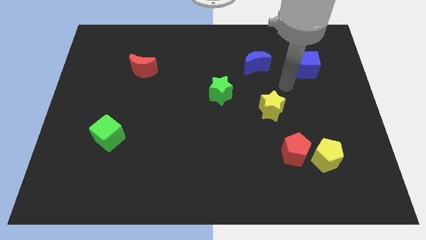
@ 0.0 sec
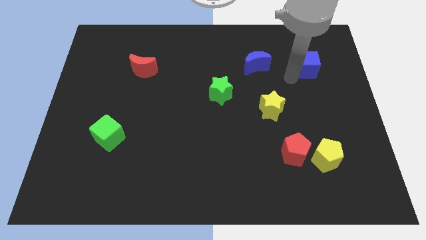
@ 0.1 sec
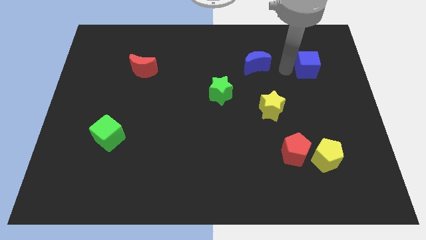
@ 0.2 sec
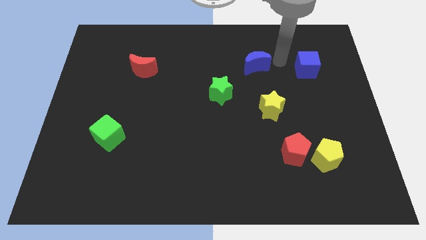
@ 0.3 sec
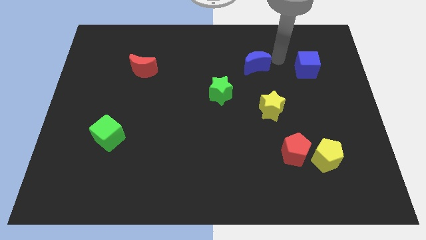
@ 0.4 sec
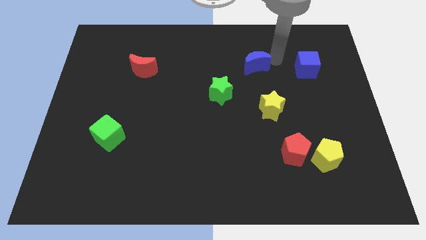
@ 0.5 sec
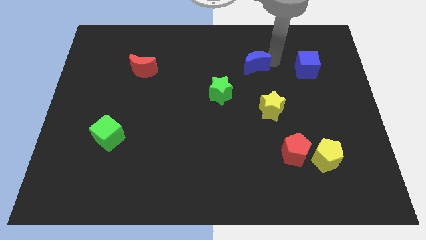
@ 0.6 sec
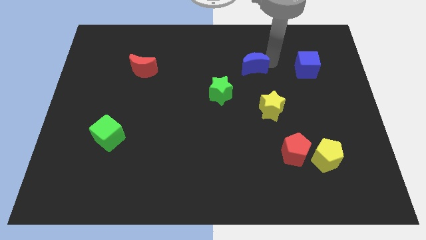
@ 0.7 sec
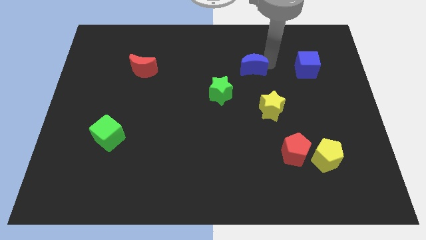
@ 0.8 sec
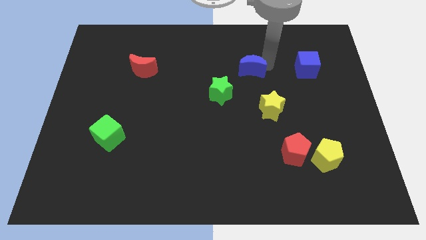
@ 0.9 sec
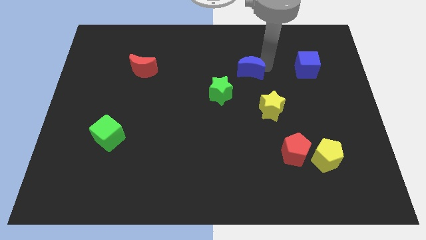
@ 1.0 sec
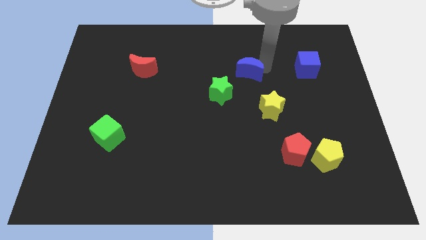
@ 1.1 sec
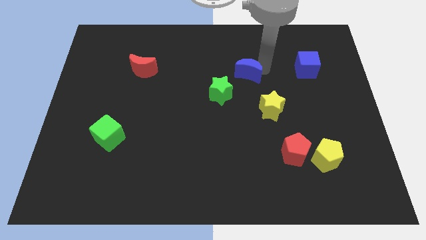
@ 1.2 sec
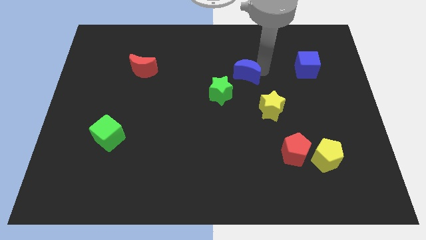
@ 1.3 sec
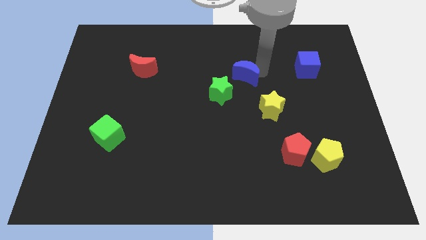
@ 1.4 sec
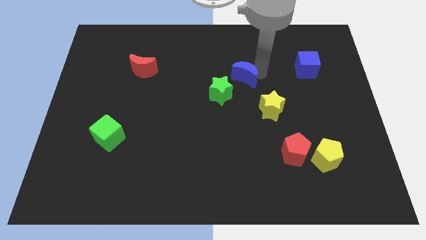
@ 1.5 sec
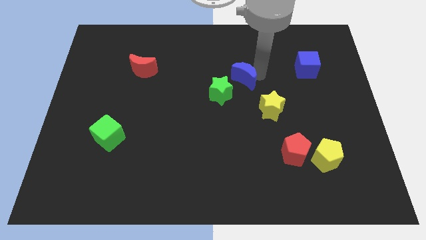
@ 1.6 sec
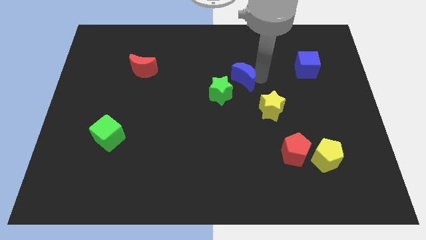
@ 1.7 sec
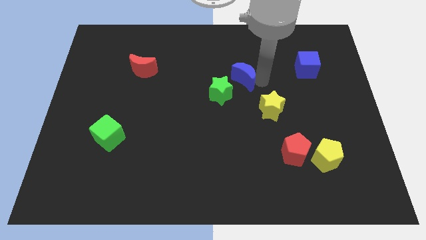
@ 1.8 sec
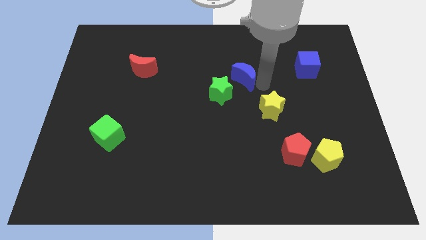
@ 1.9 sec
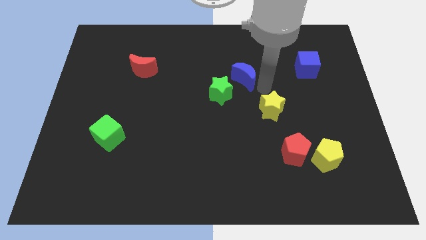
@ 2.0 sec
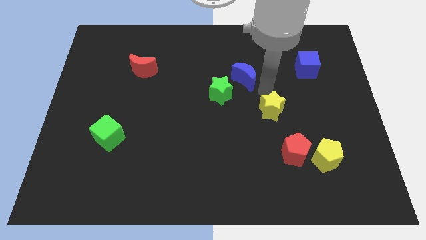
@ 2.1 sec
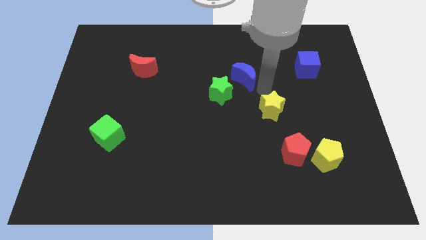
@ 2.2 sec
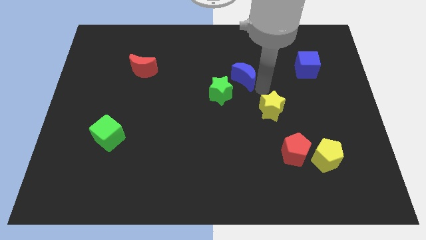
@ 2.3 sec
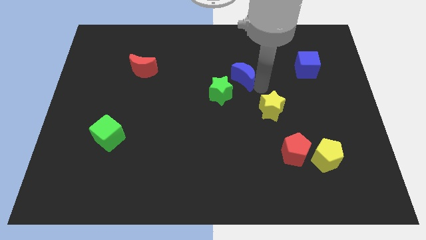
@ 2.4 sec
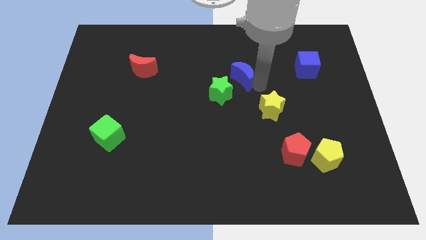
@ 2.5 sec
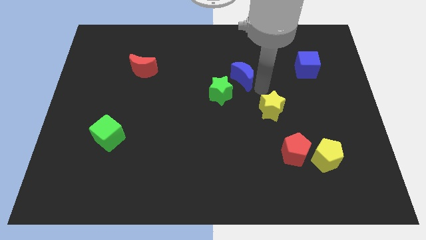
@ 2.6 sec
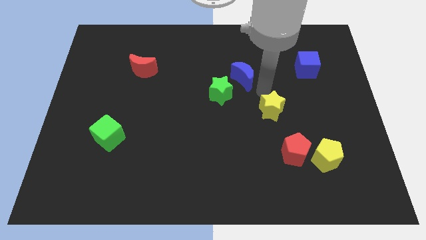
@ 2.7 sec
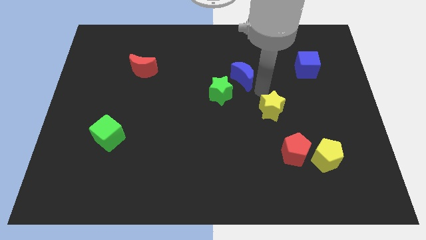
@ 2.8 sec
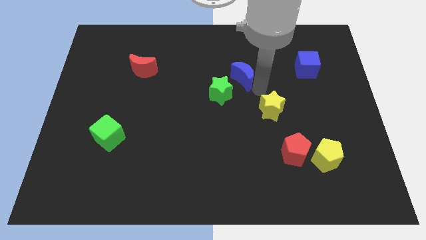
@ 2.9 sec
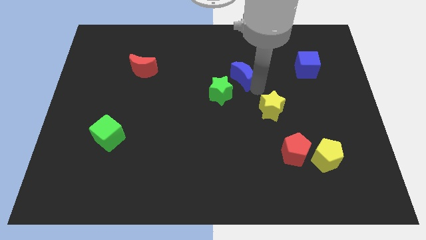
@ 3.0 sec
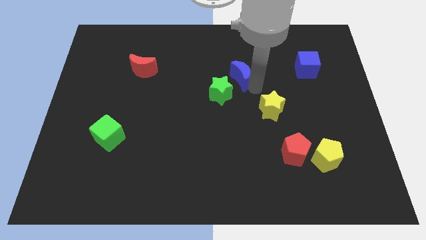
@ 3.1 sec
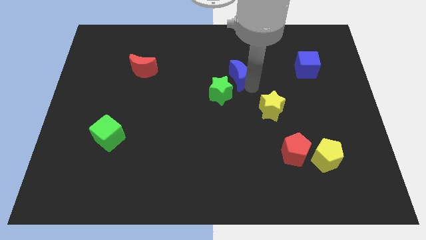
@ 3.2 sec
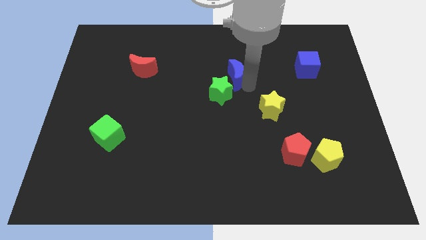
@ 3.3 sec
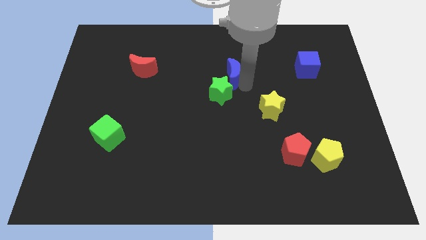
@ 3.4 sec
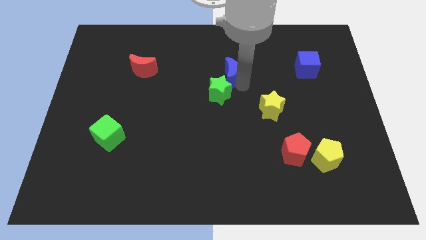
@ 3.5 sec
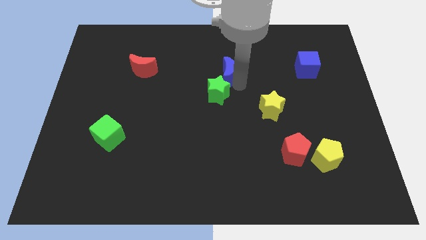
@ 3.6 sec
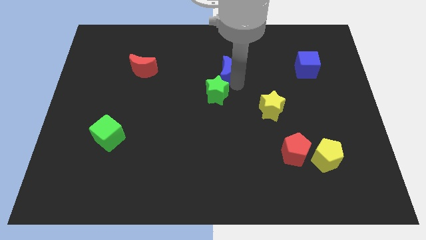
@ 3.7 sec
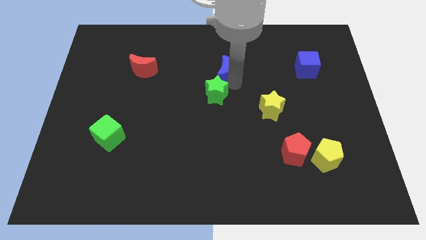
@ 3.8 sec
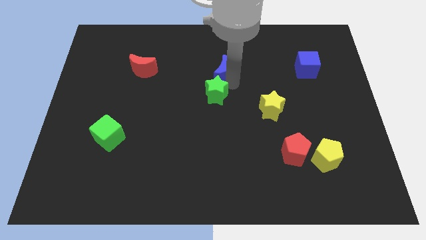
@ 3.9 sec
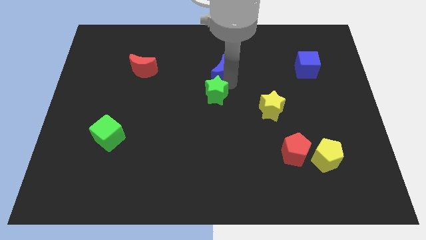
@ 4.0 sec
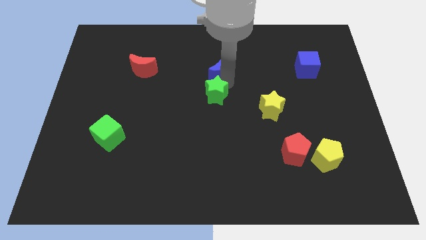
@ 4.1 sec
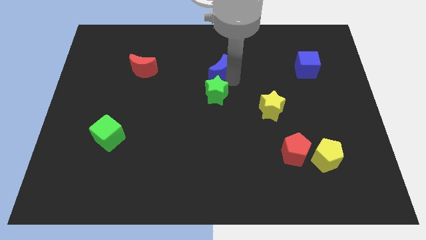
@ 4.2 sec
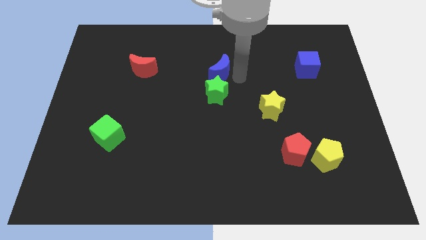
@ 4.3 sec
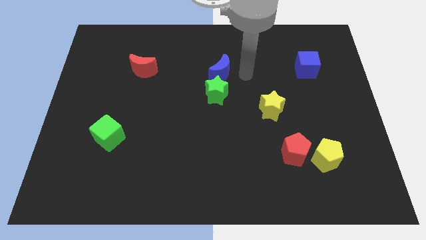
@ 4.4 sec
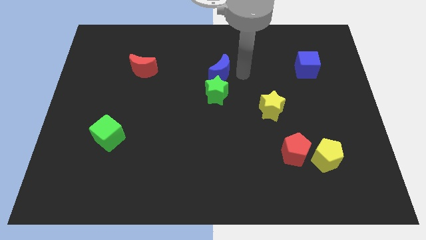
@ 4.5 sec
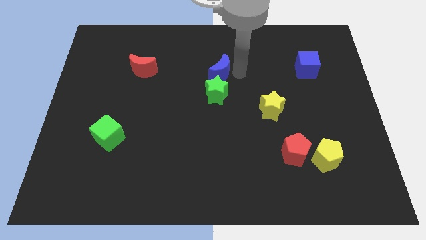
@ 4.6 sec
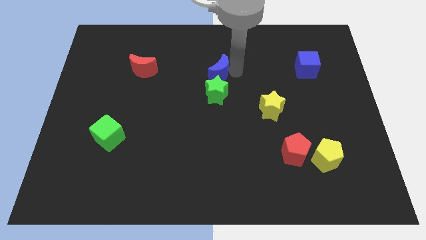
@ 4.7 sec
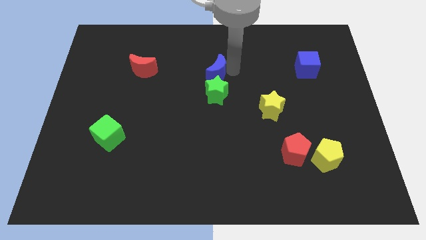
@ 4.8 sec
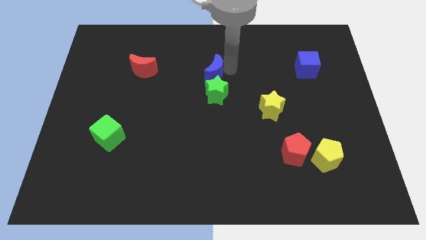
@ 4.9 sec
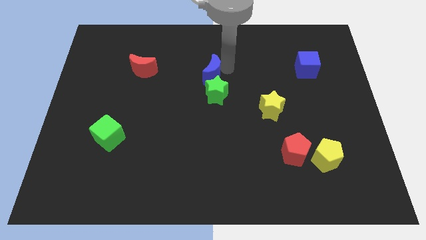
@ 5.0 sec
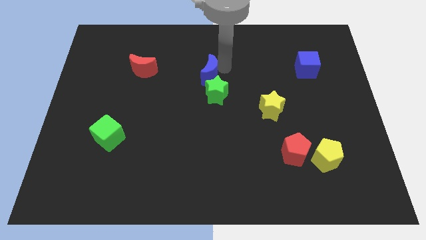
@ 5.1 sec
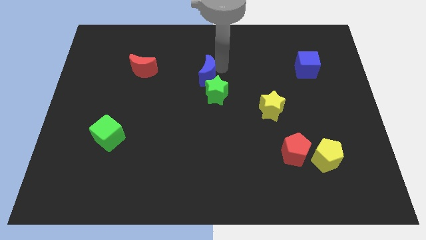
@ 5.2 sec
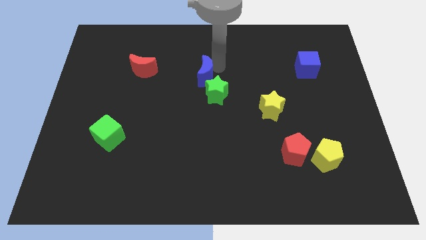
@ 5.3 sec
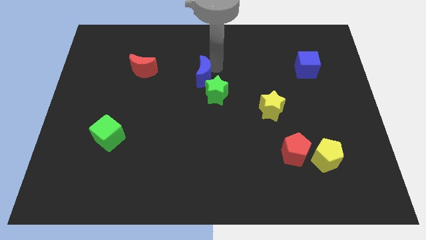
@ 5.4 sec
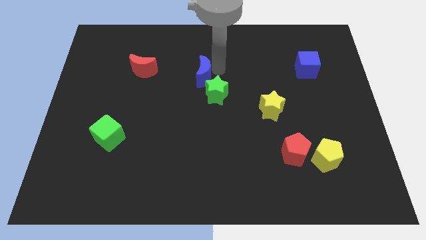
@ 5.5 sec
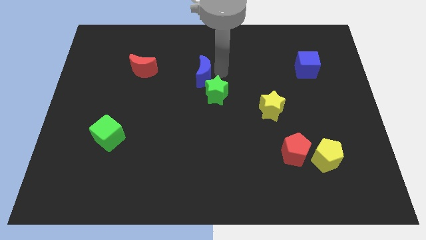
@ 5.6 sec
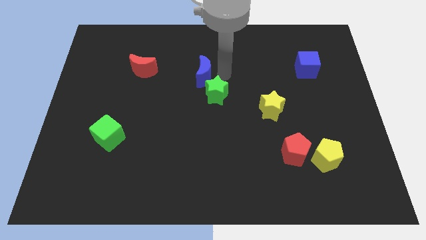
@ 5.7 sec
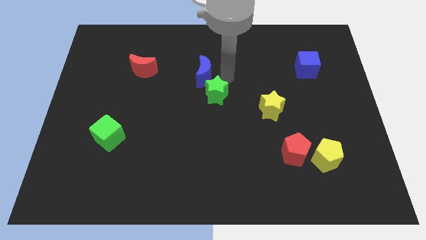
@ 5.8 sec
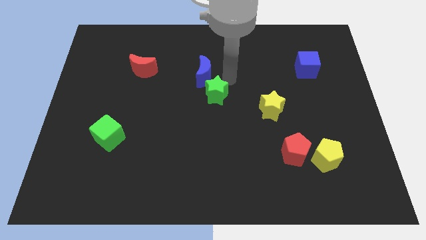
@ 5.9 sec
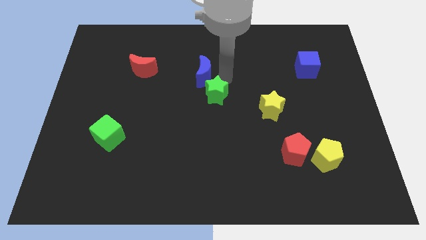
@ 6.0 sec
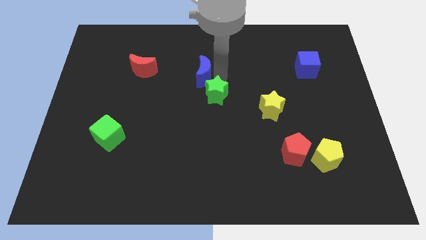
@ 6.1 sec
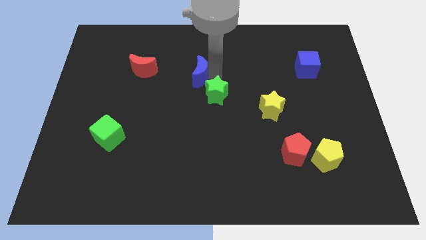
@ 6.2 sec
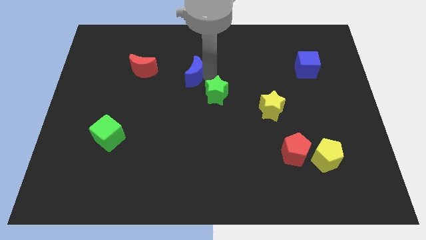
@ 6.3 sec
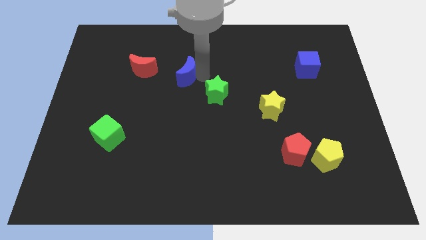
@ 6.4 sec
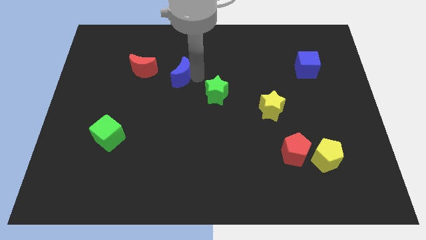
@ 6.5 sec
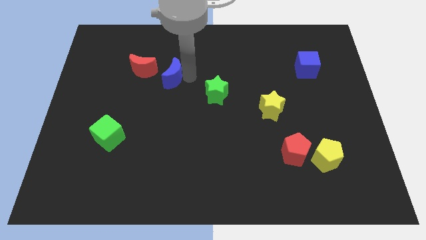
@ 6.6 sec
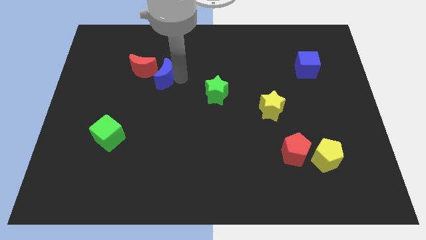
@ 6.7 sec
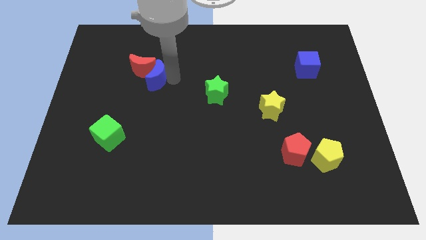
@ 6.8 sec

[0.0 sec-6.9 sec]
move the blue moon towards the red moon

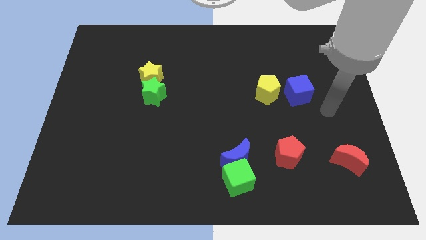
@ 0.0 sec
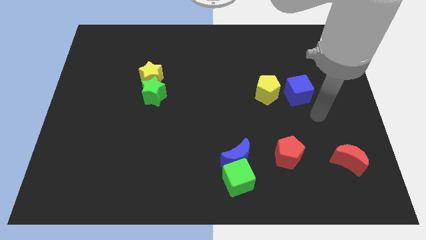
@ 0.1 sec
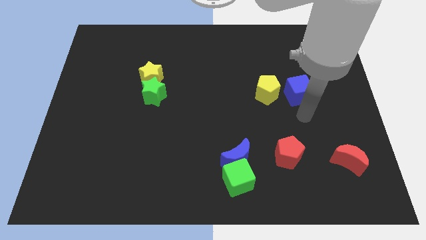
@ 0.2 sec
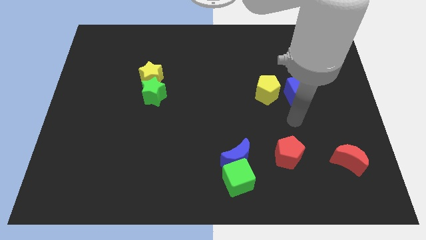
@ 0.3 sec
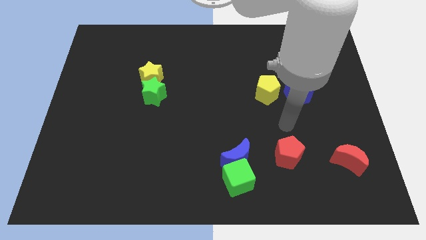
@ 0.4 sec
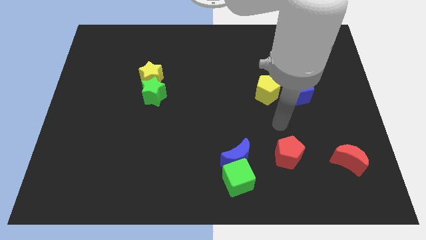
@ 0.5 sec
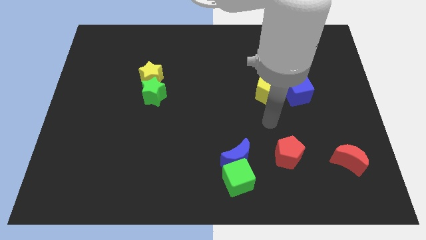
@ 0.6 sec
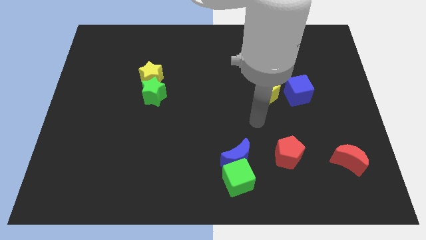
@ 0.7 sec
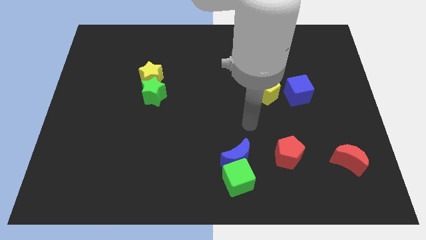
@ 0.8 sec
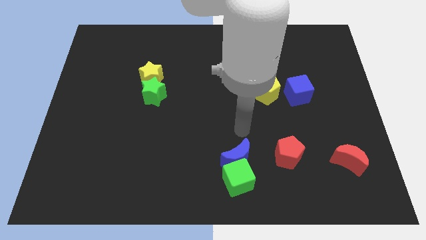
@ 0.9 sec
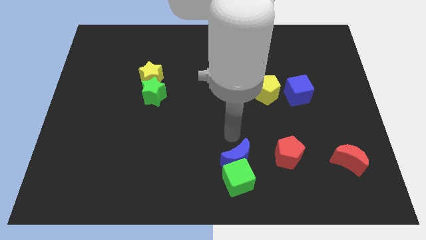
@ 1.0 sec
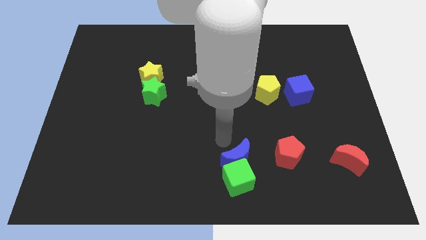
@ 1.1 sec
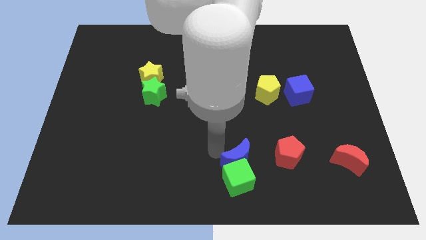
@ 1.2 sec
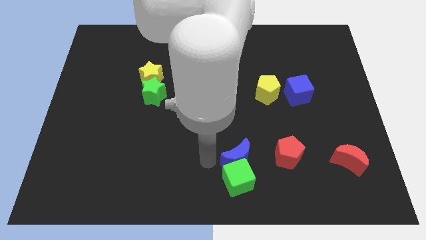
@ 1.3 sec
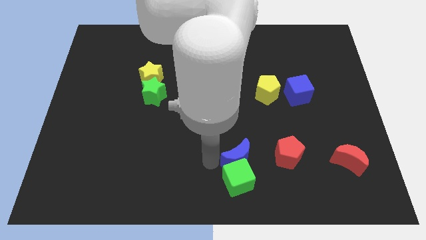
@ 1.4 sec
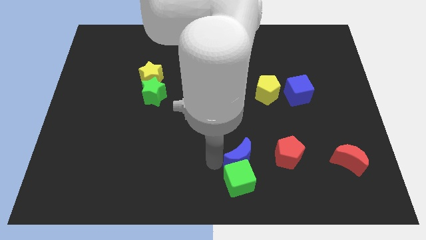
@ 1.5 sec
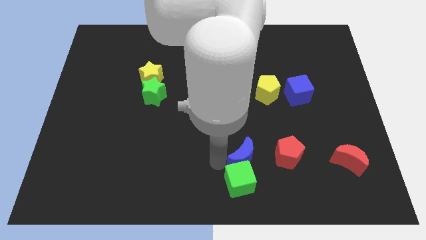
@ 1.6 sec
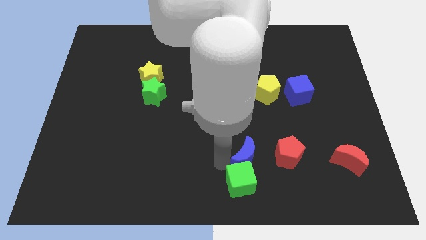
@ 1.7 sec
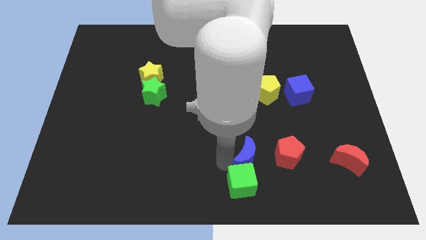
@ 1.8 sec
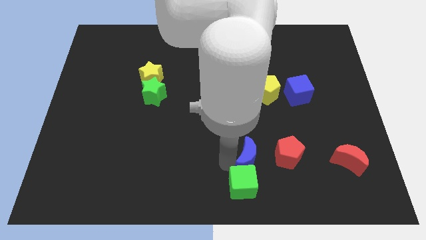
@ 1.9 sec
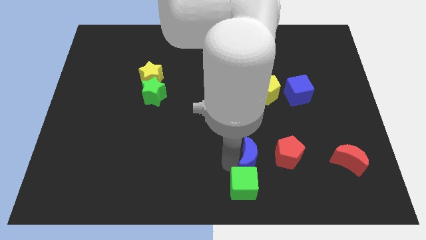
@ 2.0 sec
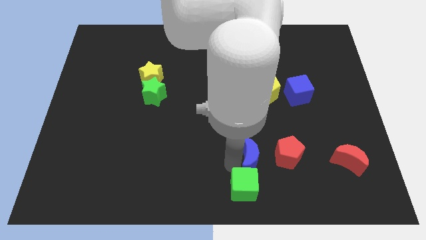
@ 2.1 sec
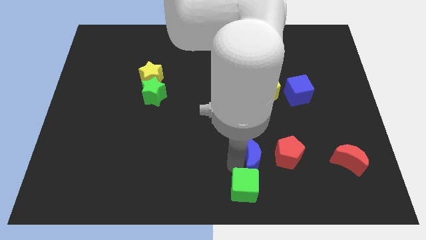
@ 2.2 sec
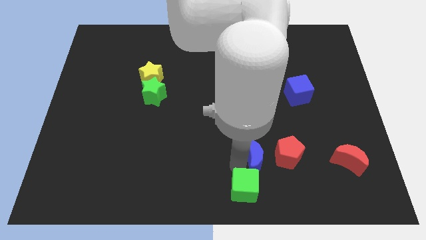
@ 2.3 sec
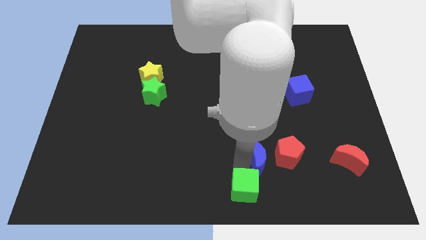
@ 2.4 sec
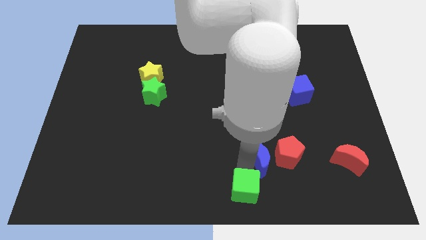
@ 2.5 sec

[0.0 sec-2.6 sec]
move the blue moon next to the red pentagon
